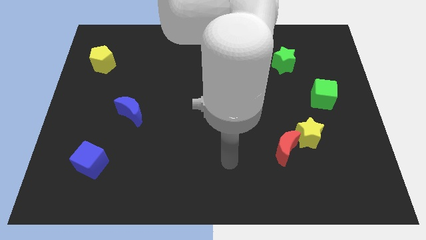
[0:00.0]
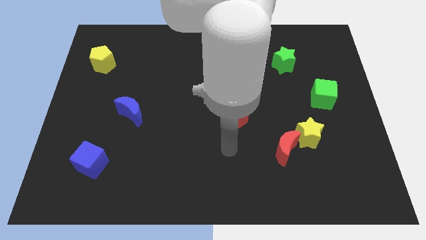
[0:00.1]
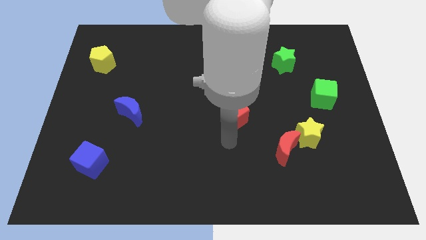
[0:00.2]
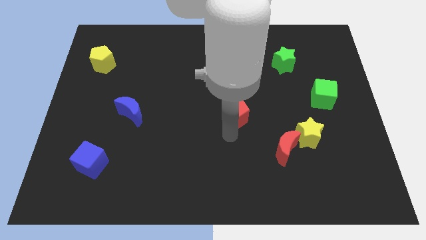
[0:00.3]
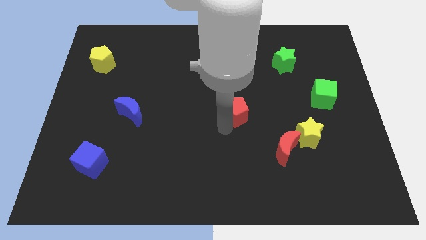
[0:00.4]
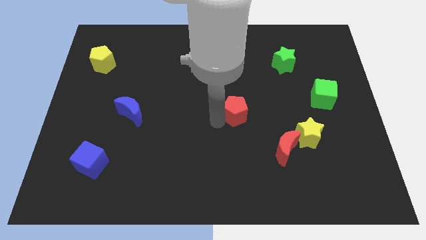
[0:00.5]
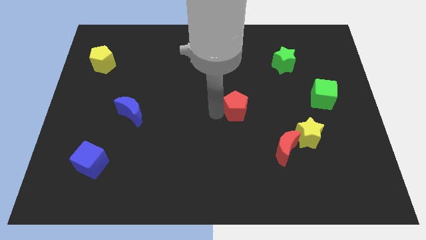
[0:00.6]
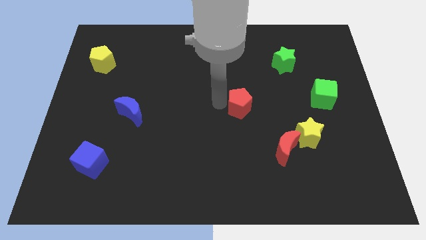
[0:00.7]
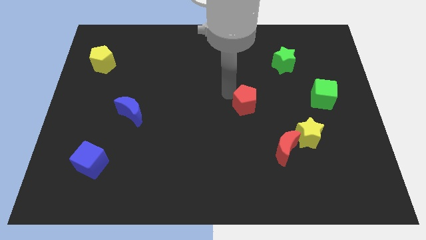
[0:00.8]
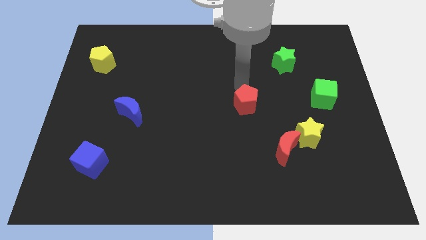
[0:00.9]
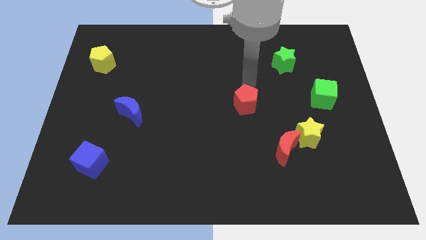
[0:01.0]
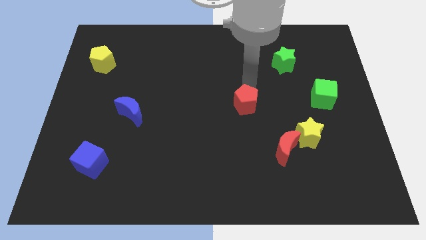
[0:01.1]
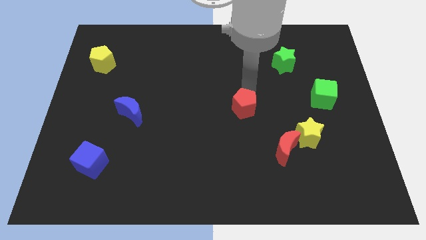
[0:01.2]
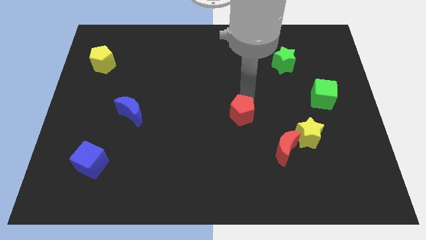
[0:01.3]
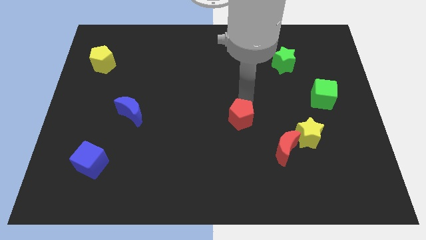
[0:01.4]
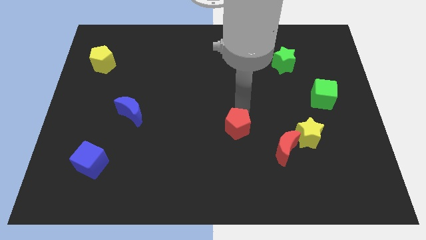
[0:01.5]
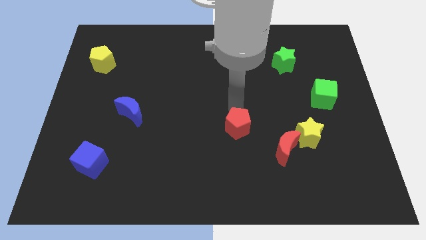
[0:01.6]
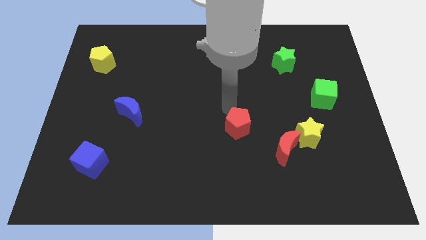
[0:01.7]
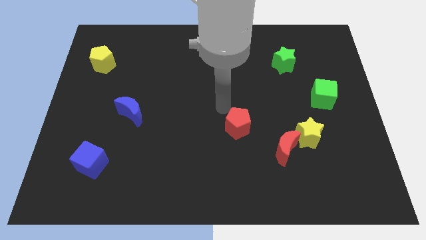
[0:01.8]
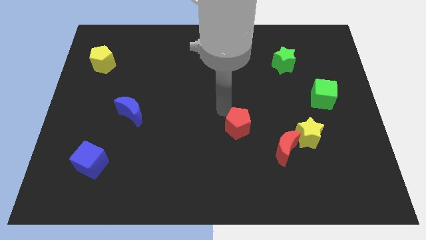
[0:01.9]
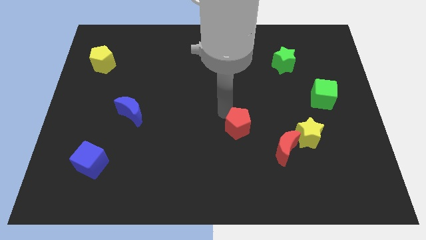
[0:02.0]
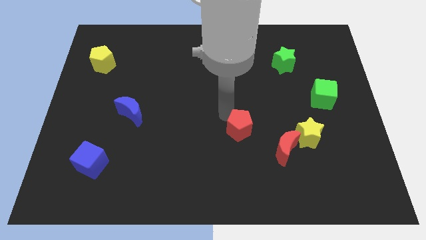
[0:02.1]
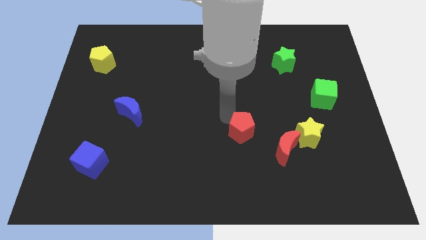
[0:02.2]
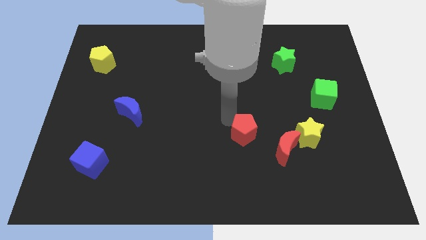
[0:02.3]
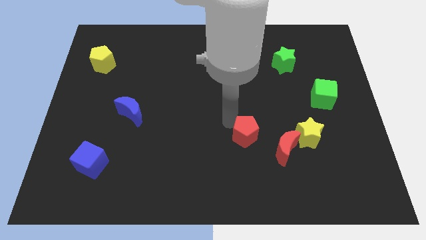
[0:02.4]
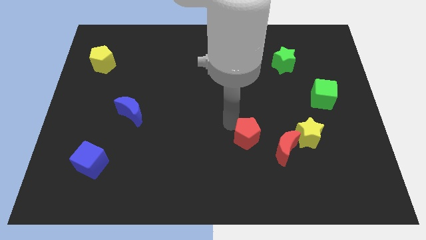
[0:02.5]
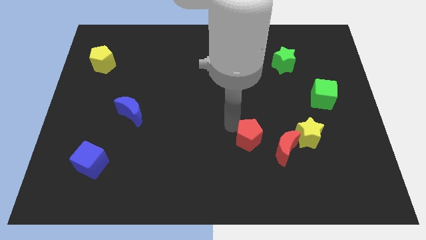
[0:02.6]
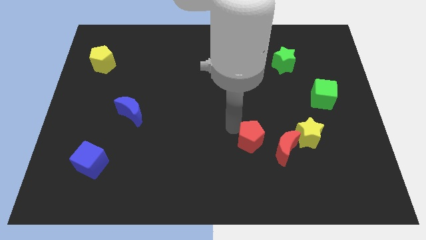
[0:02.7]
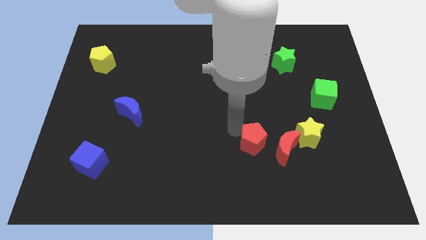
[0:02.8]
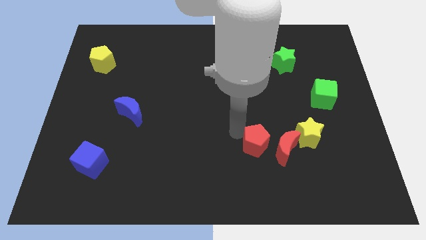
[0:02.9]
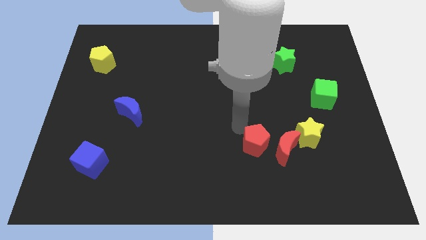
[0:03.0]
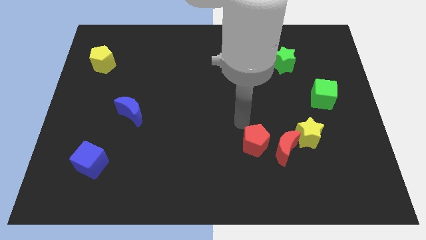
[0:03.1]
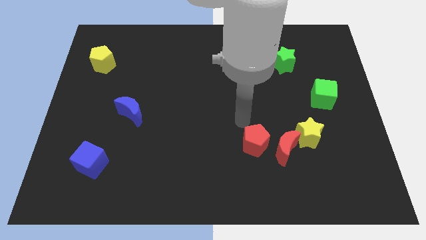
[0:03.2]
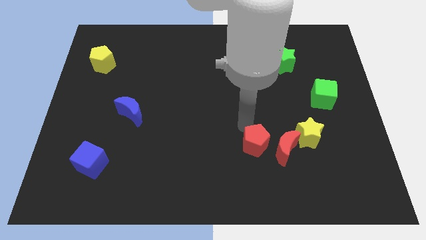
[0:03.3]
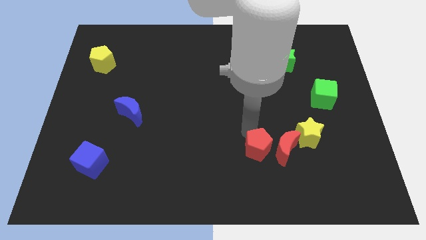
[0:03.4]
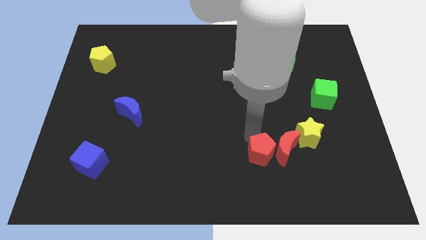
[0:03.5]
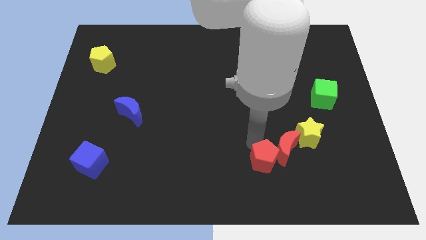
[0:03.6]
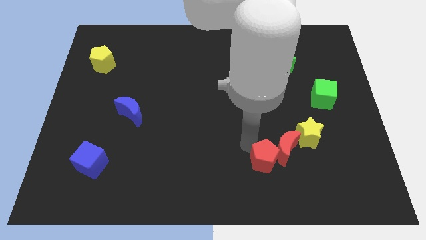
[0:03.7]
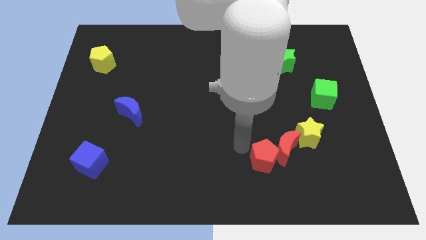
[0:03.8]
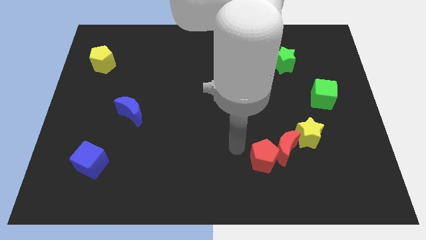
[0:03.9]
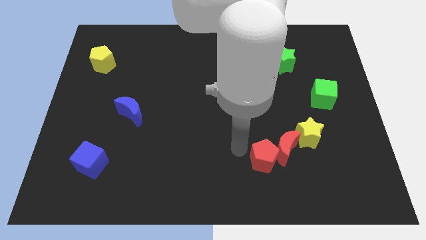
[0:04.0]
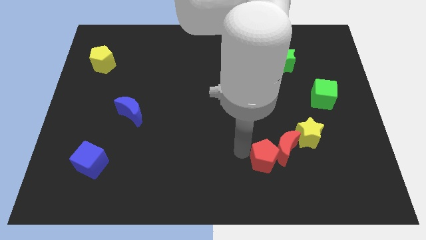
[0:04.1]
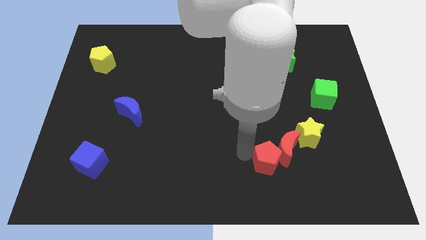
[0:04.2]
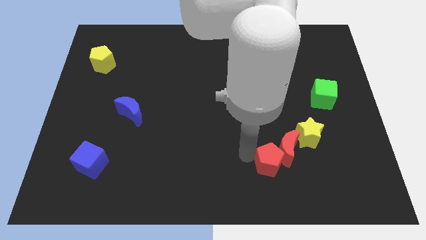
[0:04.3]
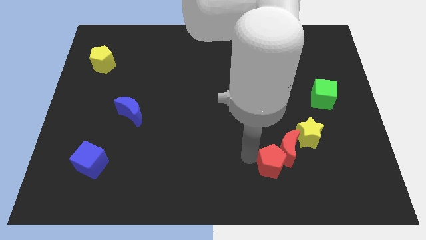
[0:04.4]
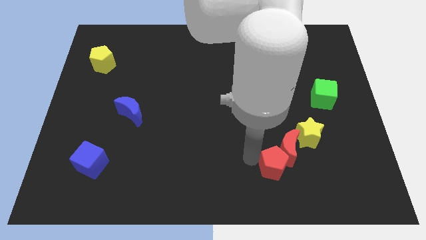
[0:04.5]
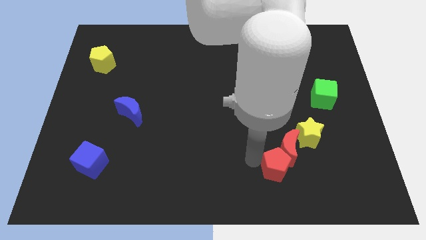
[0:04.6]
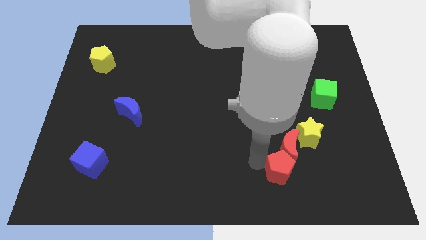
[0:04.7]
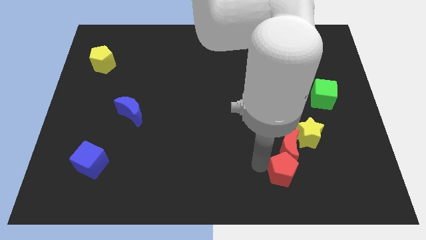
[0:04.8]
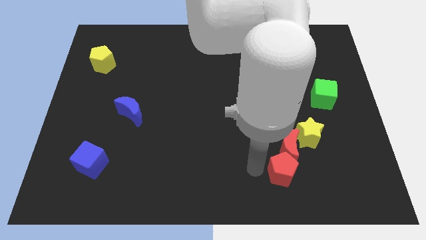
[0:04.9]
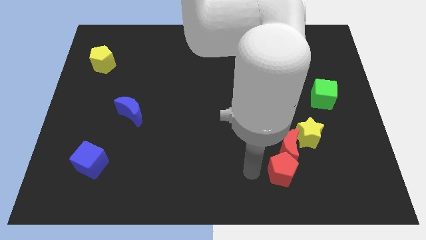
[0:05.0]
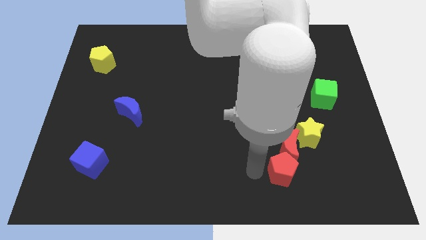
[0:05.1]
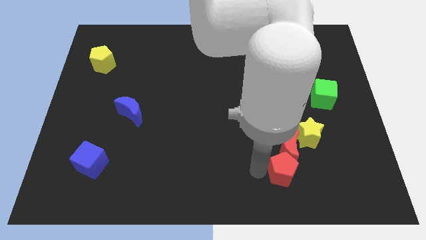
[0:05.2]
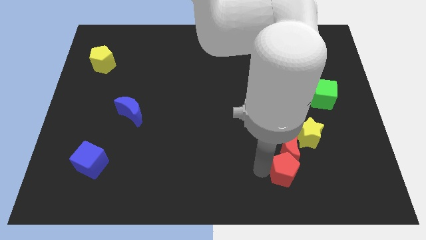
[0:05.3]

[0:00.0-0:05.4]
push the red pentagon diagonally down and to the right of the red moon

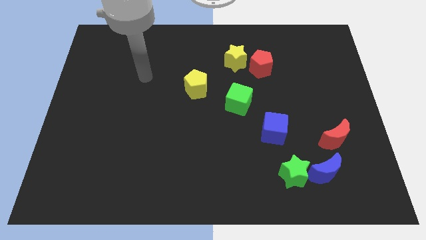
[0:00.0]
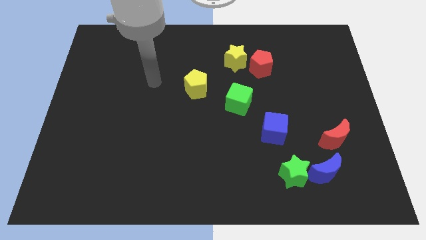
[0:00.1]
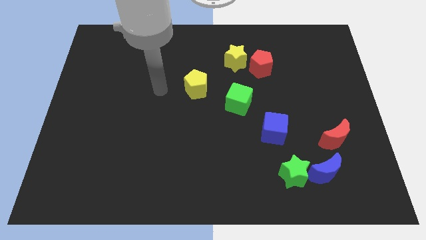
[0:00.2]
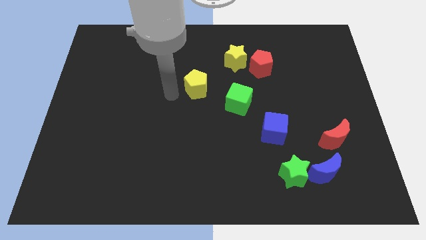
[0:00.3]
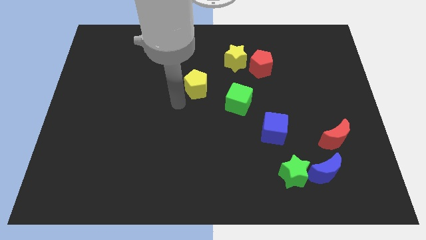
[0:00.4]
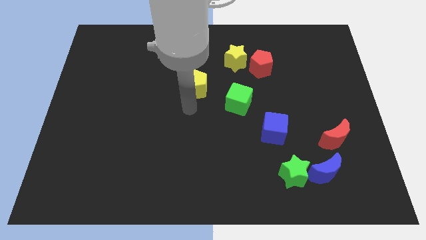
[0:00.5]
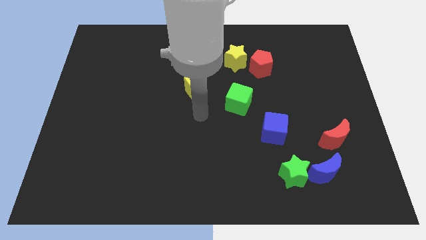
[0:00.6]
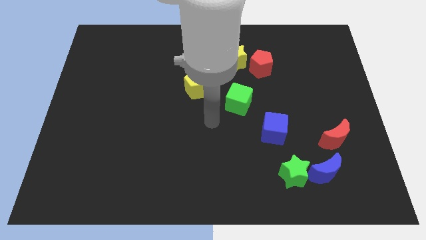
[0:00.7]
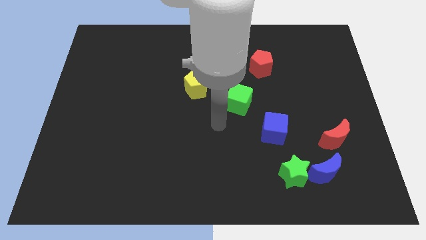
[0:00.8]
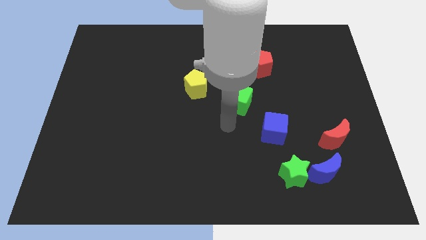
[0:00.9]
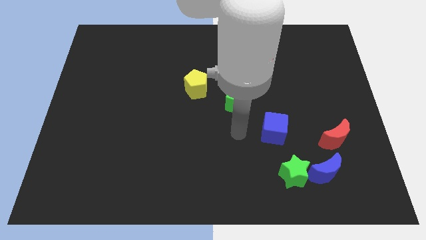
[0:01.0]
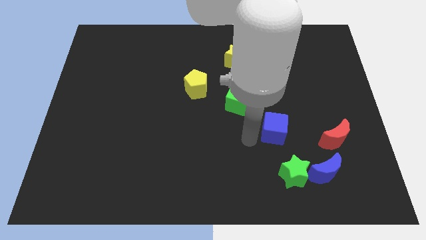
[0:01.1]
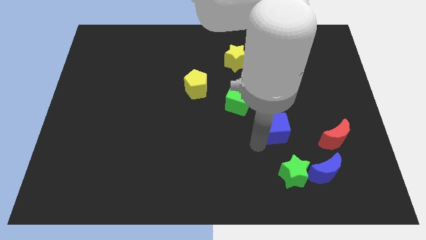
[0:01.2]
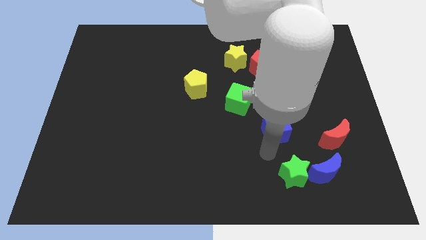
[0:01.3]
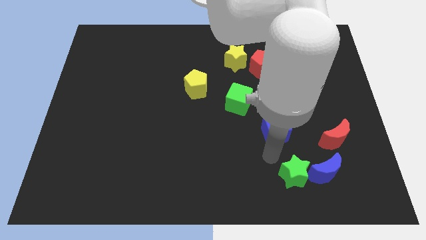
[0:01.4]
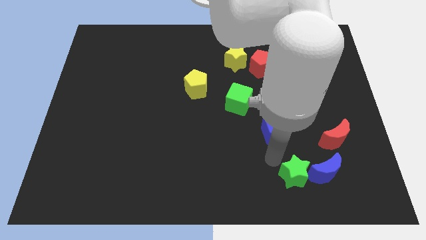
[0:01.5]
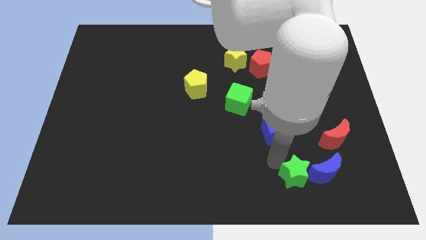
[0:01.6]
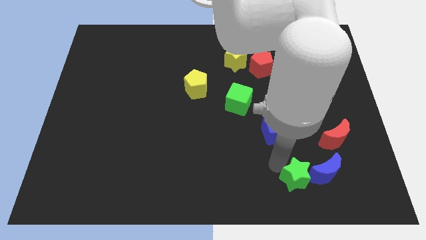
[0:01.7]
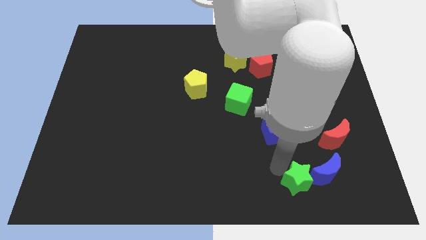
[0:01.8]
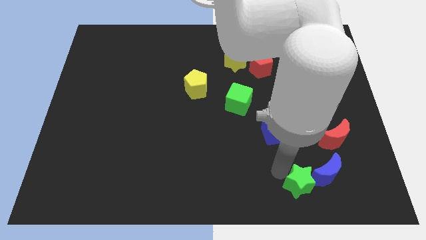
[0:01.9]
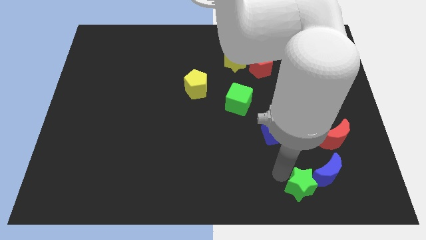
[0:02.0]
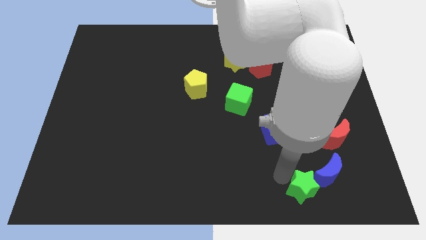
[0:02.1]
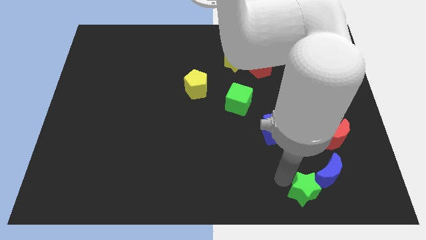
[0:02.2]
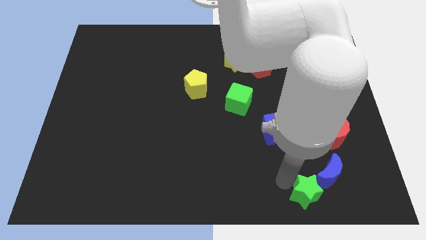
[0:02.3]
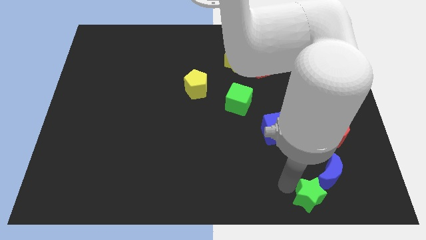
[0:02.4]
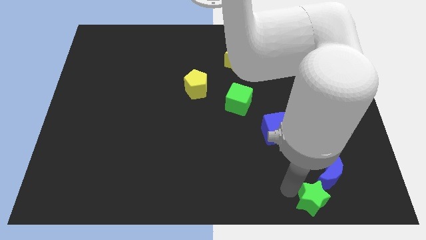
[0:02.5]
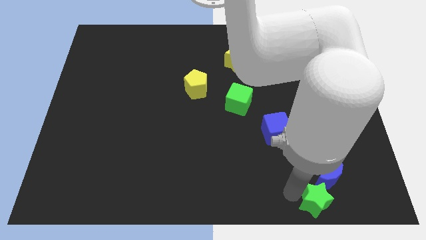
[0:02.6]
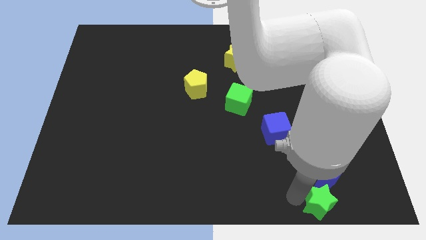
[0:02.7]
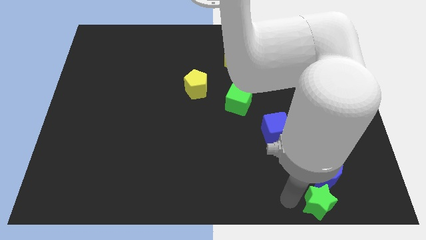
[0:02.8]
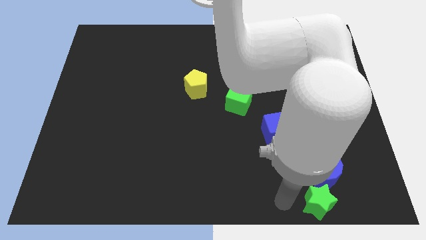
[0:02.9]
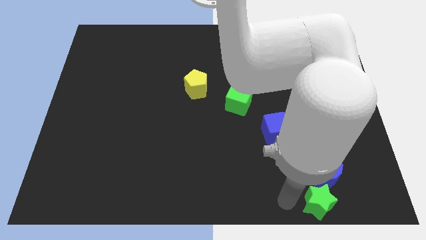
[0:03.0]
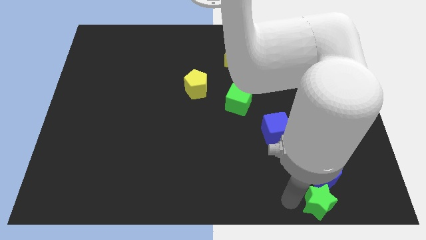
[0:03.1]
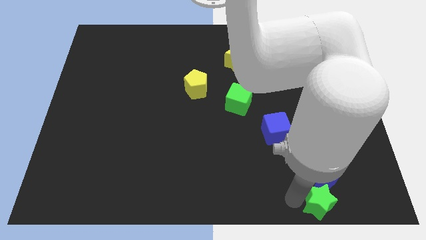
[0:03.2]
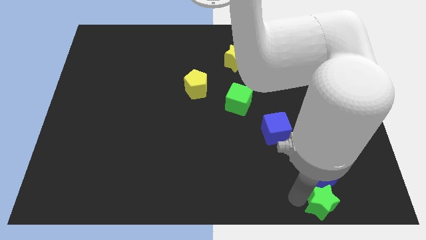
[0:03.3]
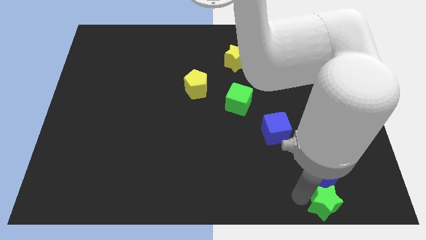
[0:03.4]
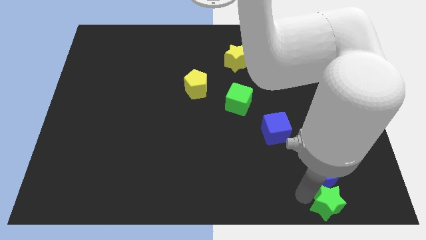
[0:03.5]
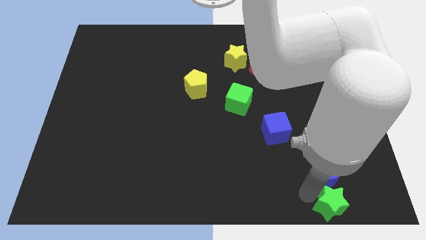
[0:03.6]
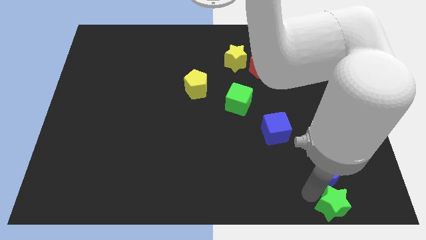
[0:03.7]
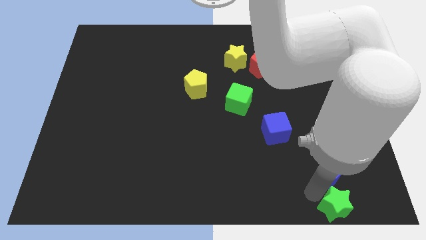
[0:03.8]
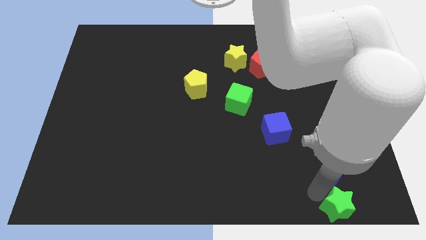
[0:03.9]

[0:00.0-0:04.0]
put the green star to the bottom side of the red moon
